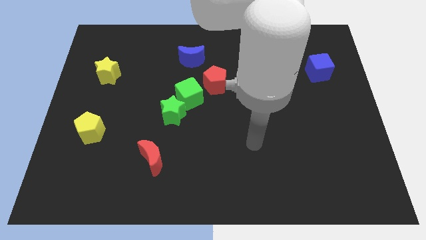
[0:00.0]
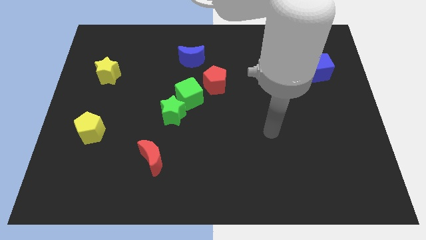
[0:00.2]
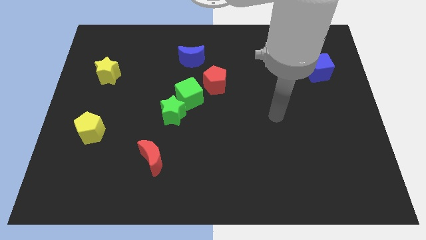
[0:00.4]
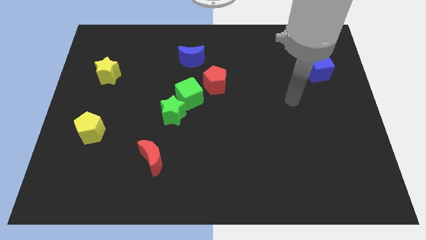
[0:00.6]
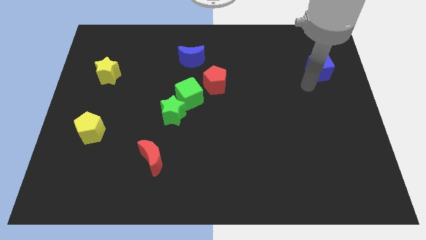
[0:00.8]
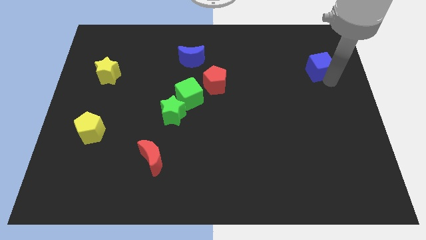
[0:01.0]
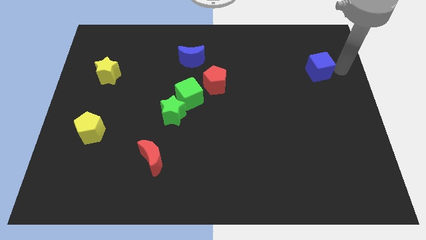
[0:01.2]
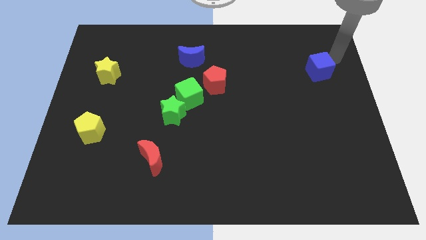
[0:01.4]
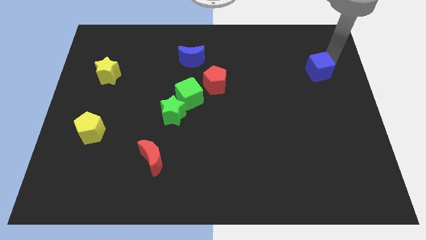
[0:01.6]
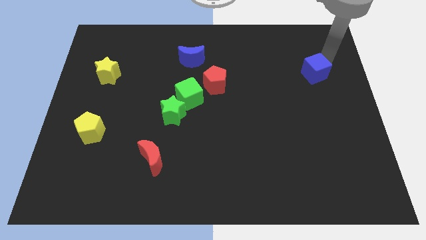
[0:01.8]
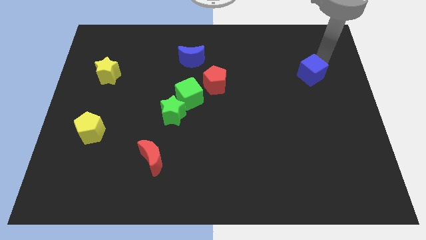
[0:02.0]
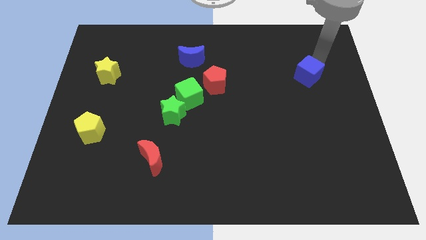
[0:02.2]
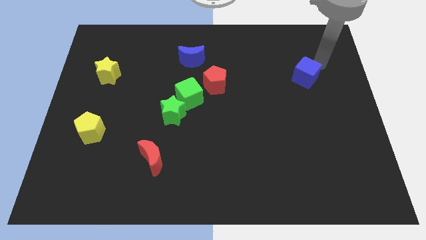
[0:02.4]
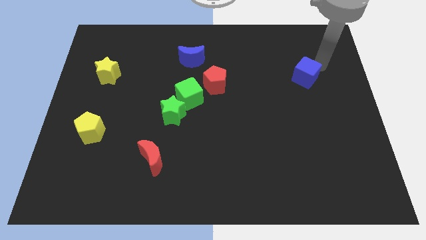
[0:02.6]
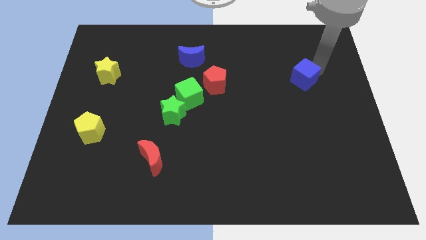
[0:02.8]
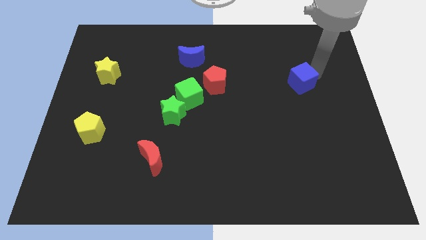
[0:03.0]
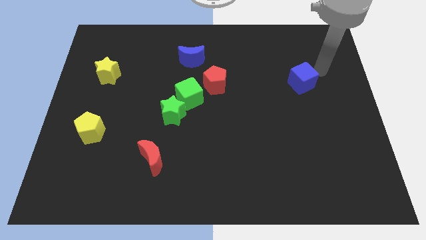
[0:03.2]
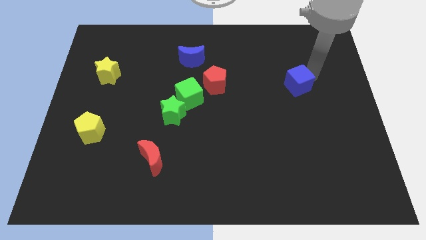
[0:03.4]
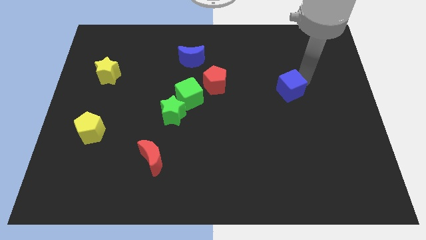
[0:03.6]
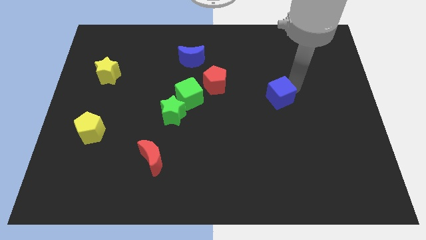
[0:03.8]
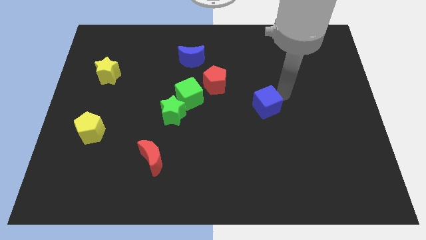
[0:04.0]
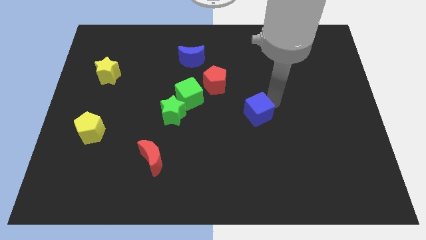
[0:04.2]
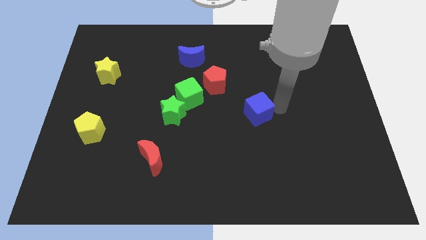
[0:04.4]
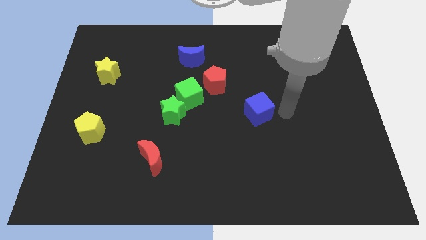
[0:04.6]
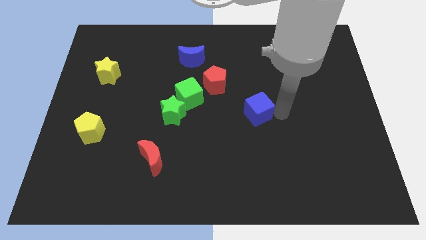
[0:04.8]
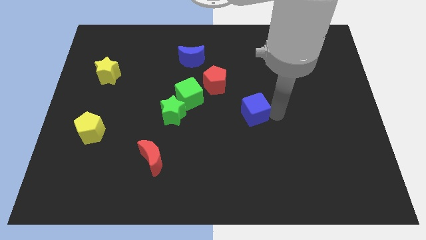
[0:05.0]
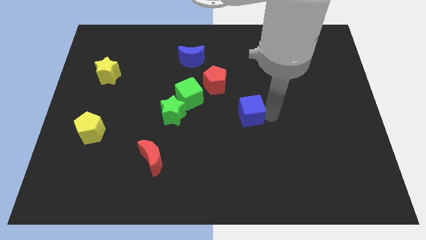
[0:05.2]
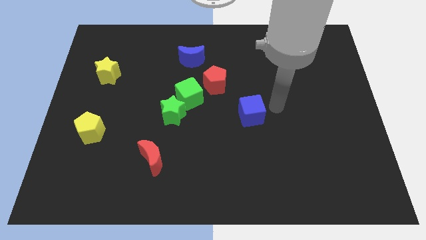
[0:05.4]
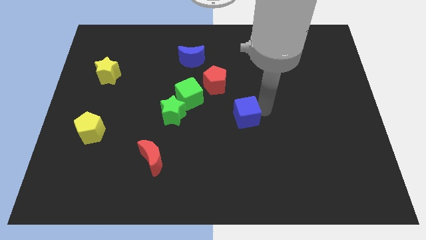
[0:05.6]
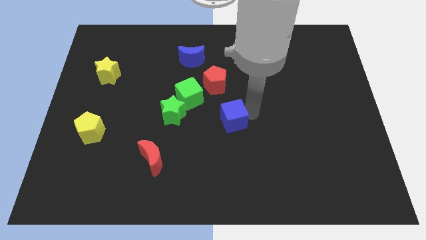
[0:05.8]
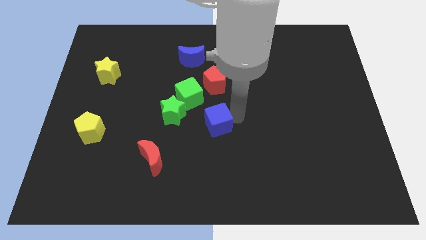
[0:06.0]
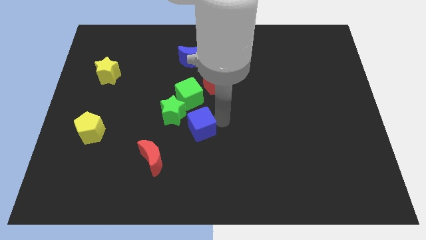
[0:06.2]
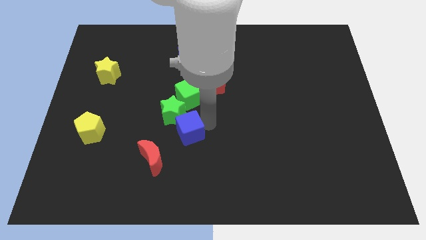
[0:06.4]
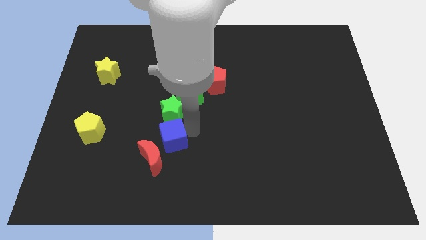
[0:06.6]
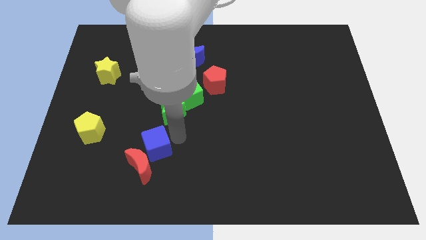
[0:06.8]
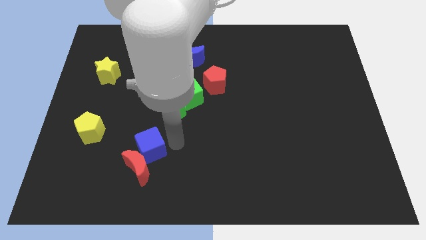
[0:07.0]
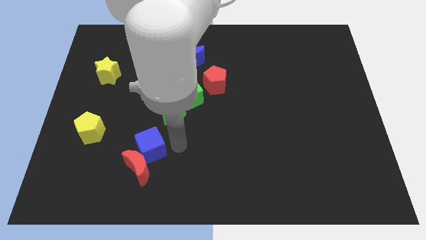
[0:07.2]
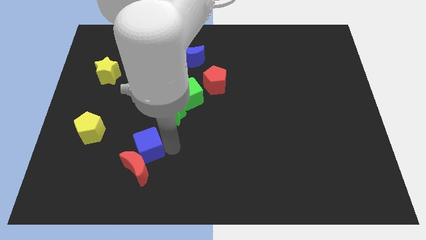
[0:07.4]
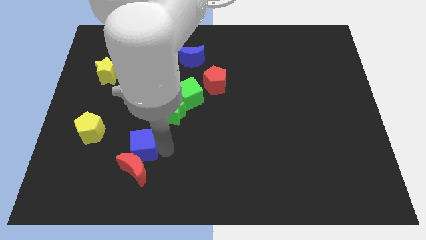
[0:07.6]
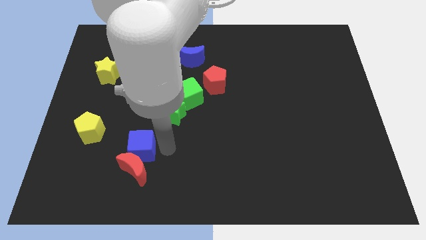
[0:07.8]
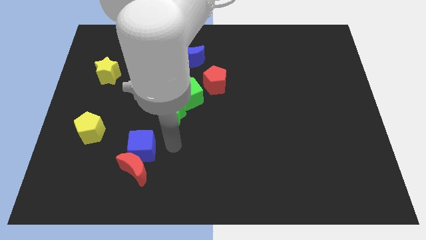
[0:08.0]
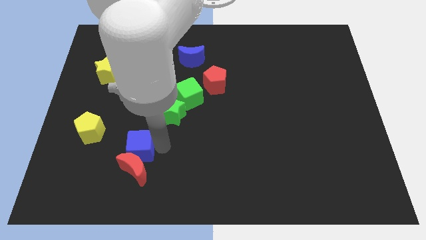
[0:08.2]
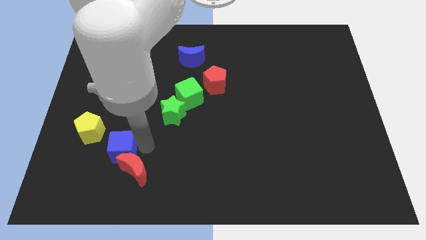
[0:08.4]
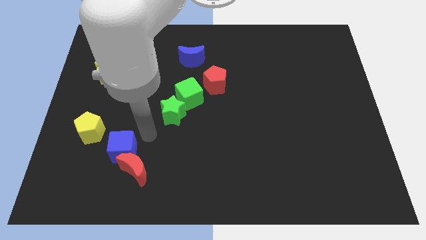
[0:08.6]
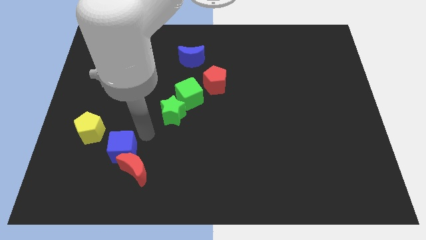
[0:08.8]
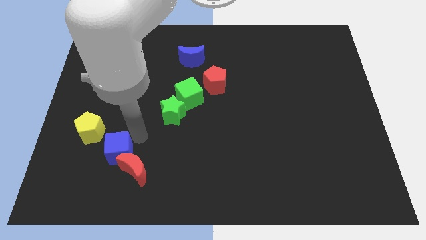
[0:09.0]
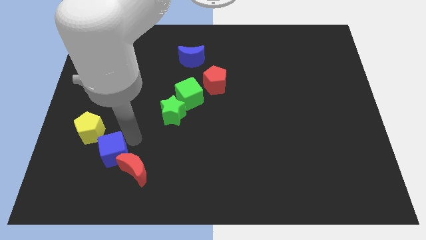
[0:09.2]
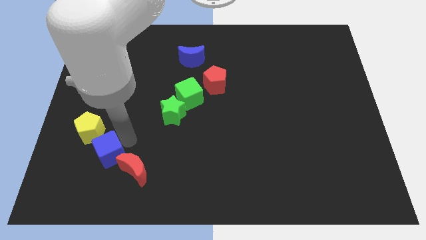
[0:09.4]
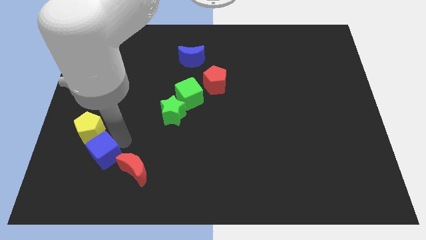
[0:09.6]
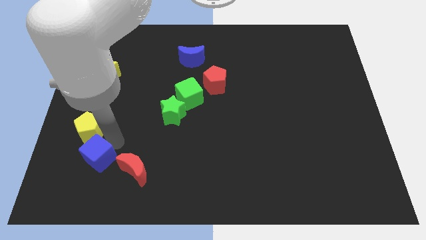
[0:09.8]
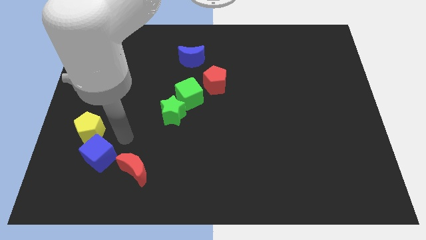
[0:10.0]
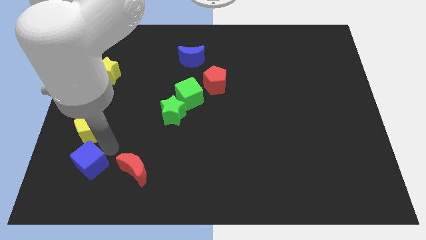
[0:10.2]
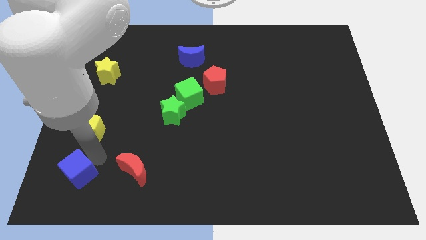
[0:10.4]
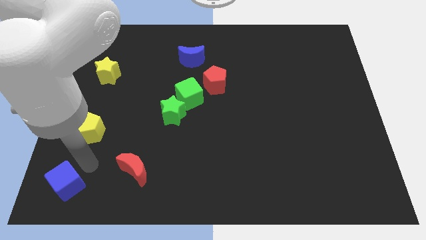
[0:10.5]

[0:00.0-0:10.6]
move the blue cube to the bottom left of the board

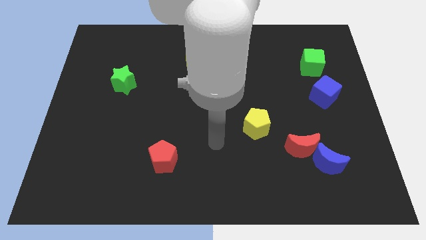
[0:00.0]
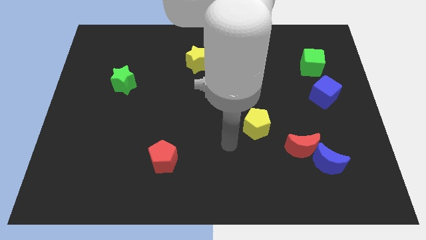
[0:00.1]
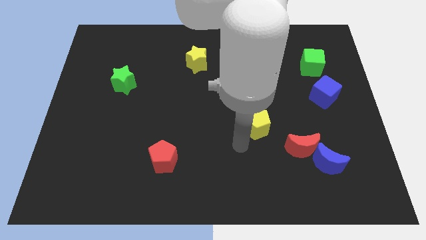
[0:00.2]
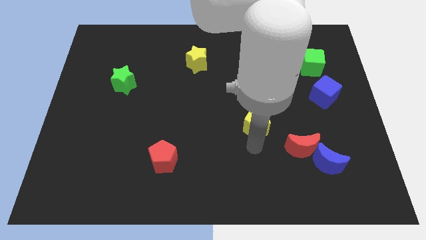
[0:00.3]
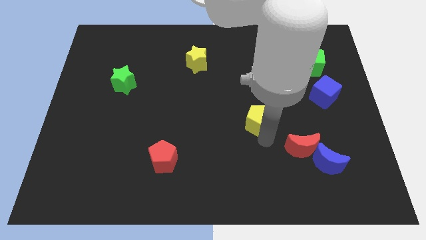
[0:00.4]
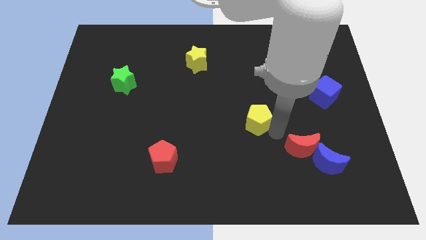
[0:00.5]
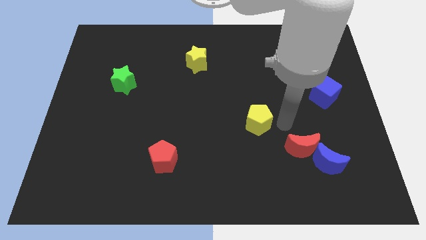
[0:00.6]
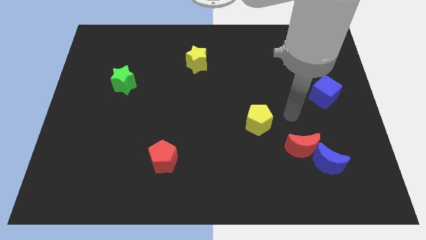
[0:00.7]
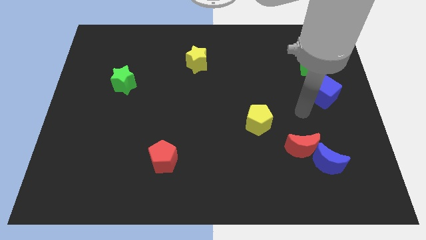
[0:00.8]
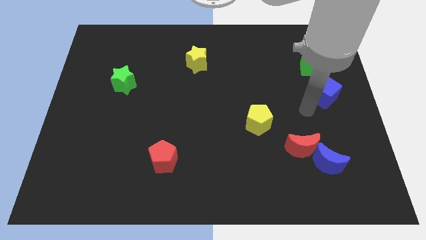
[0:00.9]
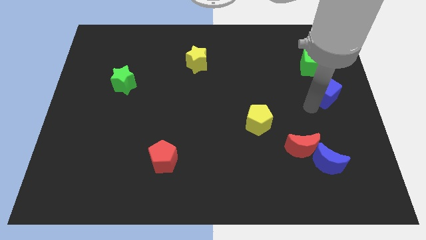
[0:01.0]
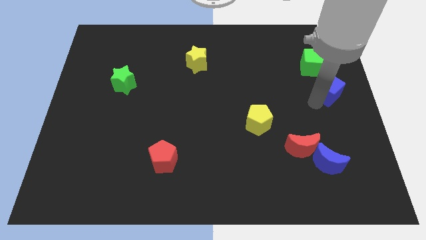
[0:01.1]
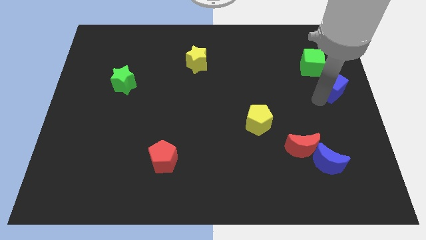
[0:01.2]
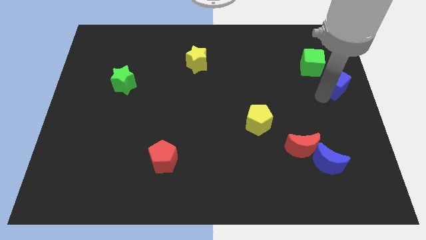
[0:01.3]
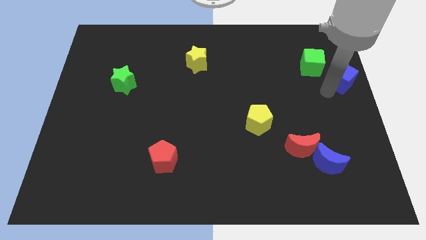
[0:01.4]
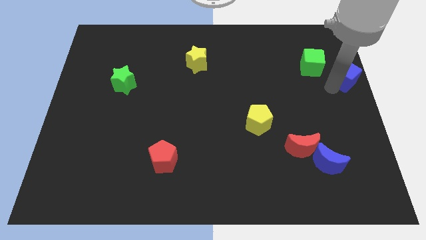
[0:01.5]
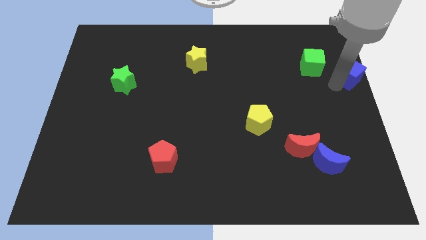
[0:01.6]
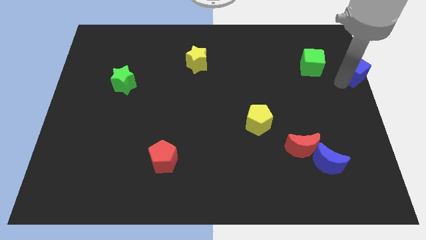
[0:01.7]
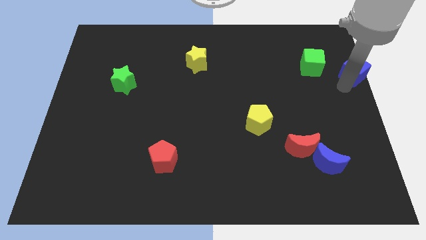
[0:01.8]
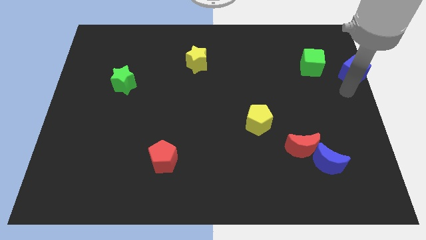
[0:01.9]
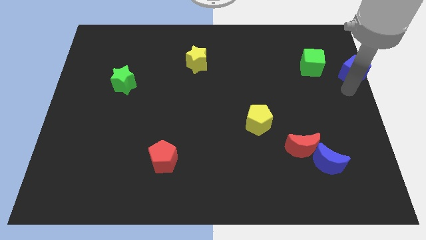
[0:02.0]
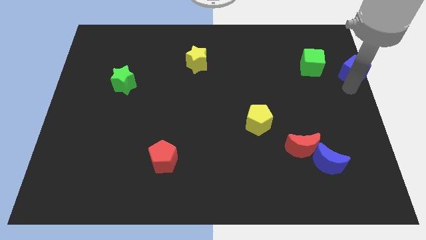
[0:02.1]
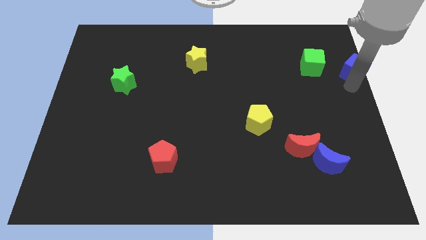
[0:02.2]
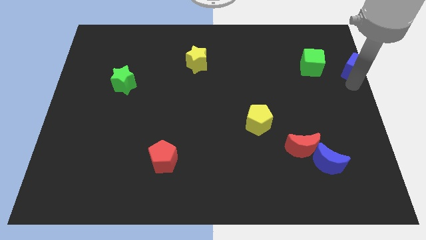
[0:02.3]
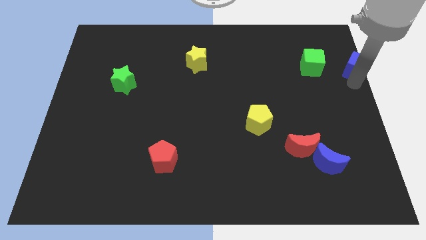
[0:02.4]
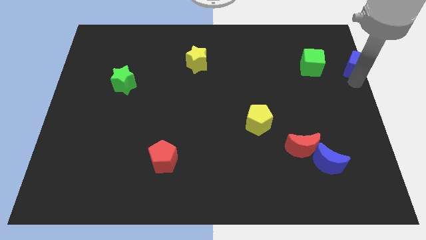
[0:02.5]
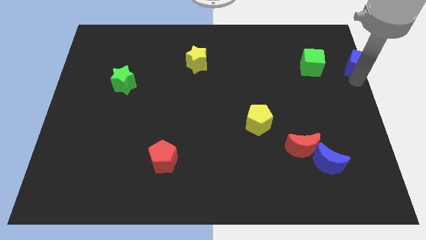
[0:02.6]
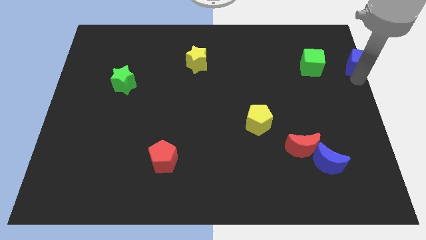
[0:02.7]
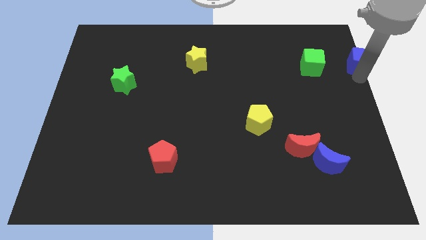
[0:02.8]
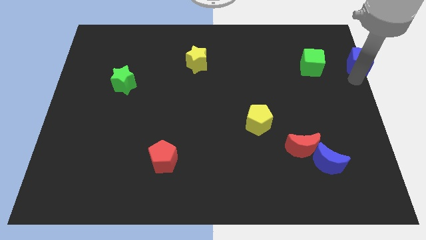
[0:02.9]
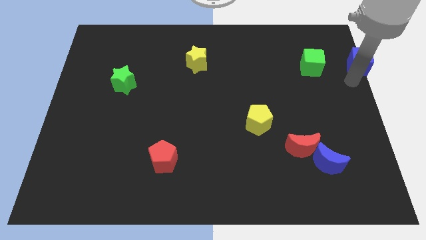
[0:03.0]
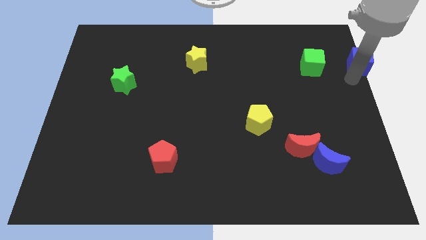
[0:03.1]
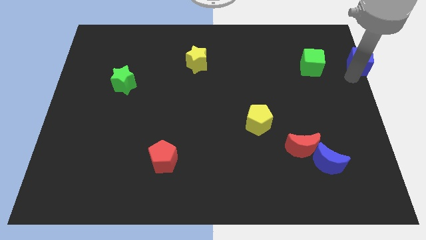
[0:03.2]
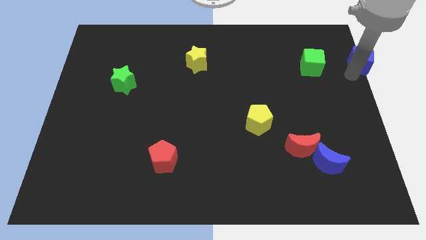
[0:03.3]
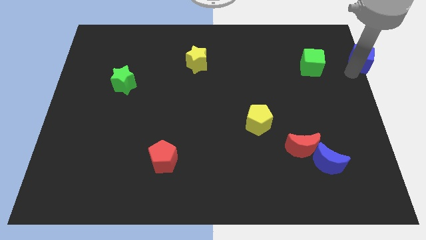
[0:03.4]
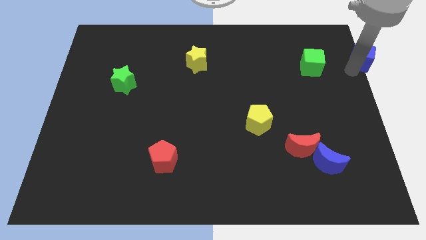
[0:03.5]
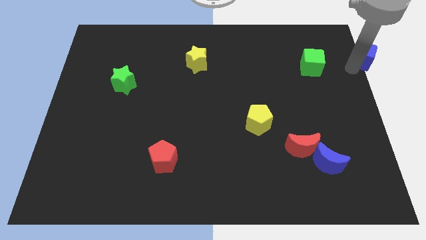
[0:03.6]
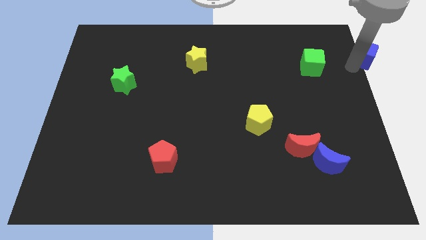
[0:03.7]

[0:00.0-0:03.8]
put the blue cube to the upper right corner
